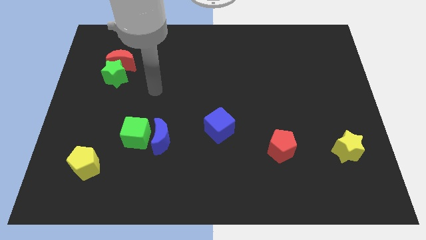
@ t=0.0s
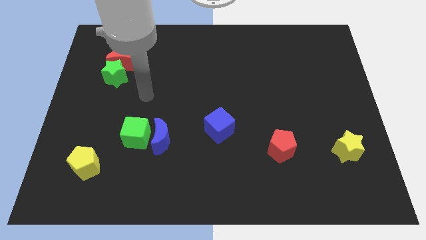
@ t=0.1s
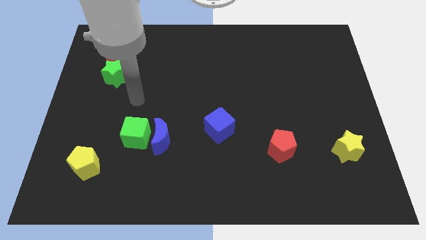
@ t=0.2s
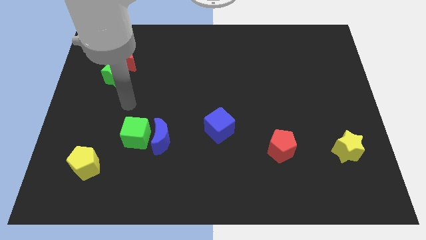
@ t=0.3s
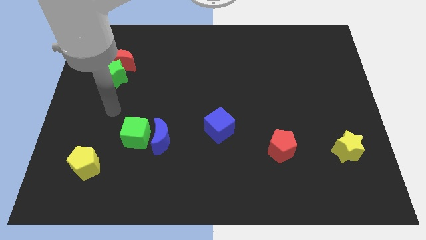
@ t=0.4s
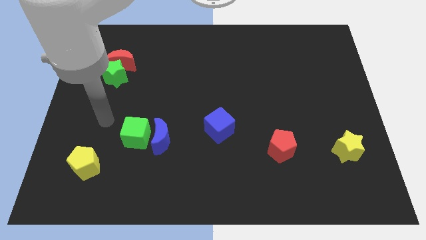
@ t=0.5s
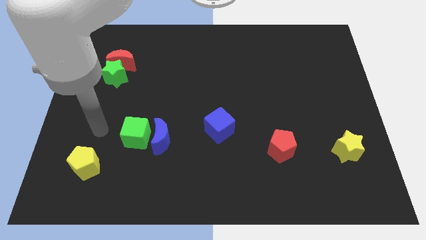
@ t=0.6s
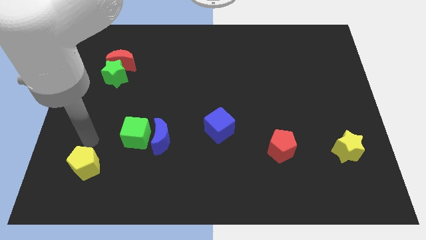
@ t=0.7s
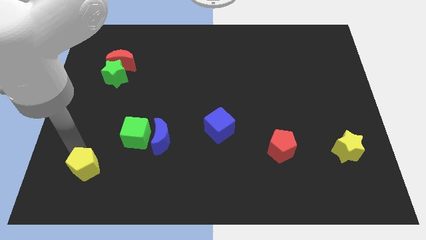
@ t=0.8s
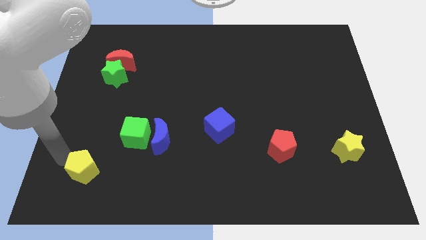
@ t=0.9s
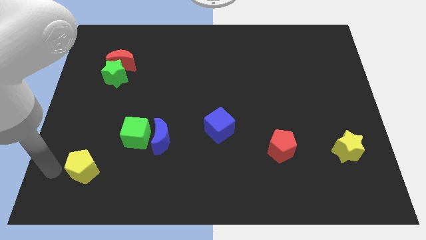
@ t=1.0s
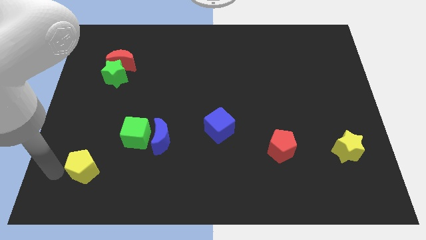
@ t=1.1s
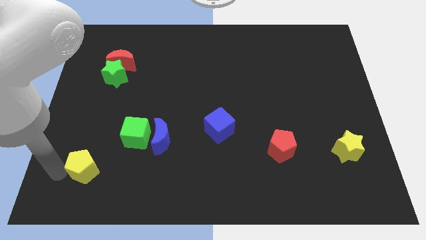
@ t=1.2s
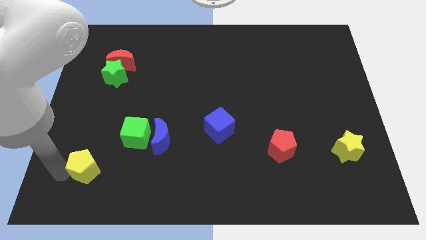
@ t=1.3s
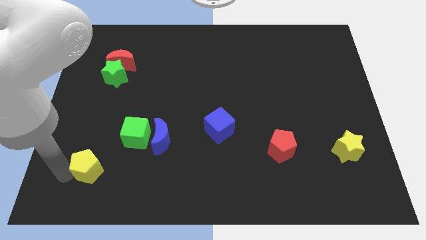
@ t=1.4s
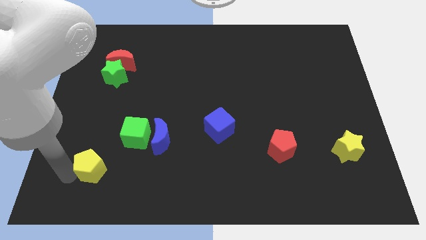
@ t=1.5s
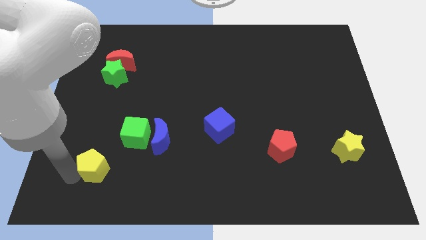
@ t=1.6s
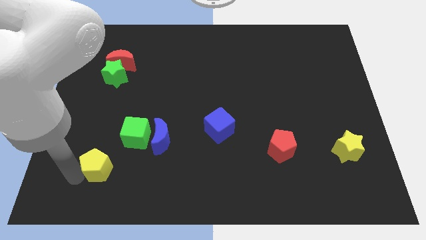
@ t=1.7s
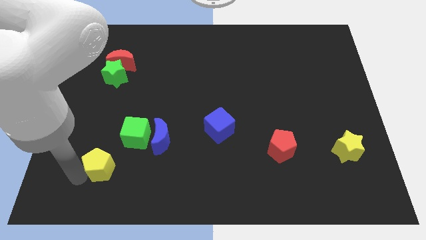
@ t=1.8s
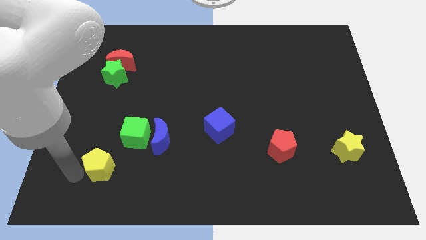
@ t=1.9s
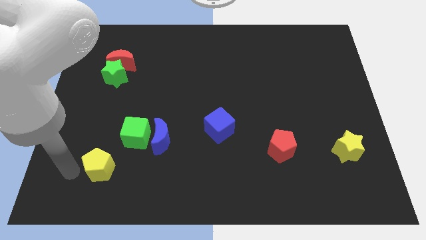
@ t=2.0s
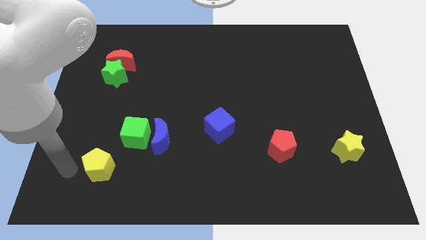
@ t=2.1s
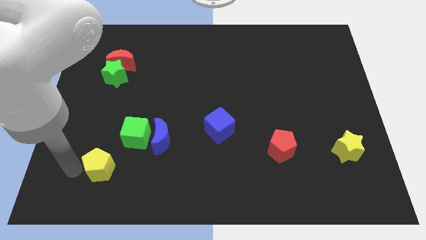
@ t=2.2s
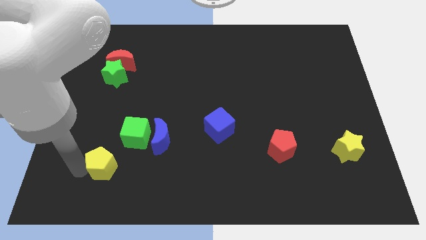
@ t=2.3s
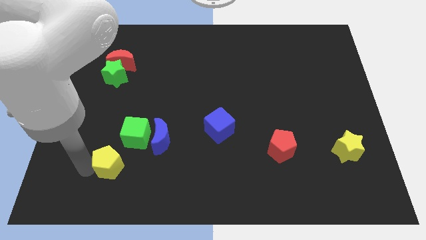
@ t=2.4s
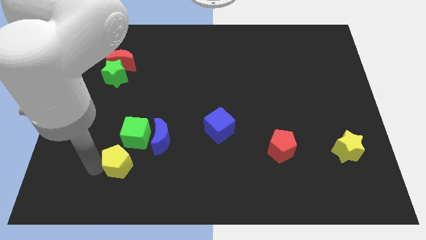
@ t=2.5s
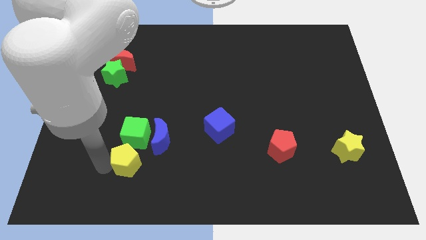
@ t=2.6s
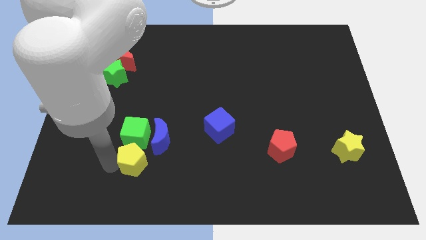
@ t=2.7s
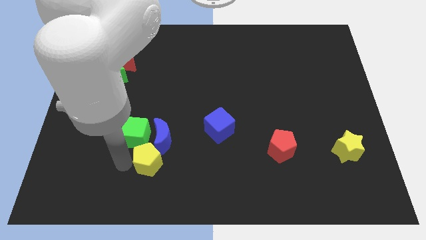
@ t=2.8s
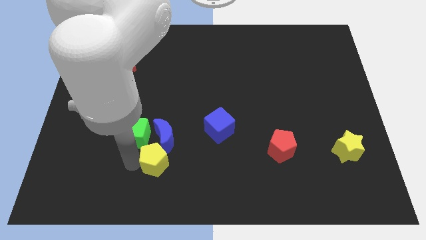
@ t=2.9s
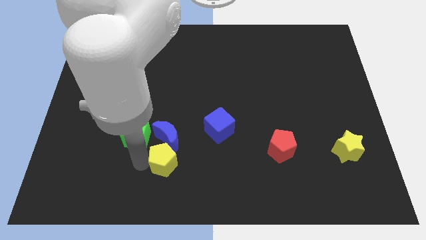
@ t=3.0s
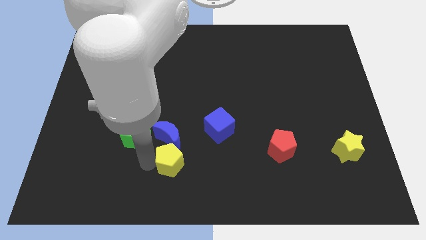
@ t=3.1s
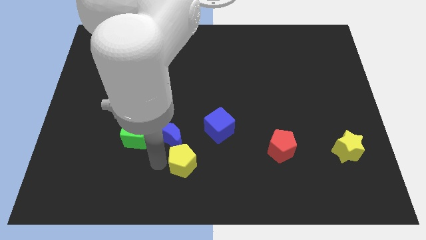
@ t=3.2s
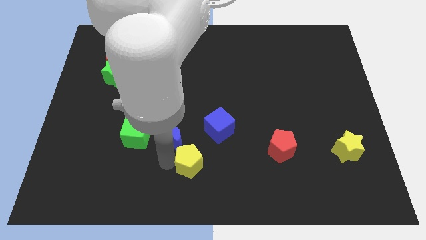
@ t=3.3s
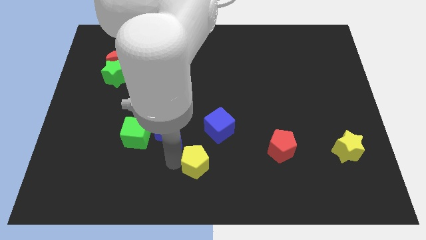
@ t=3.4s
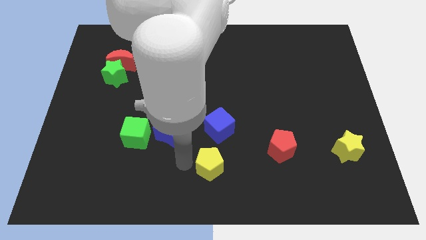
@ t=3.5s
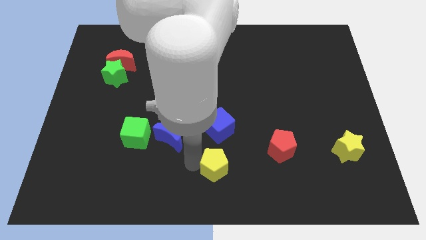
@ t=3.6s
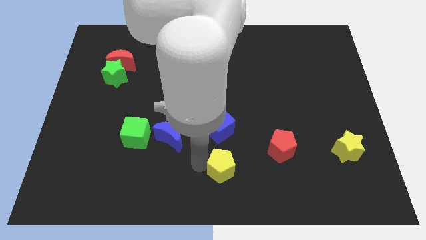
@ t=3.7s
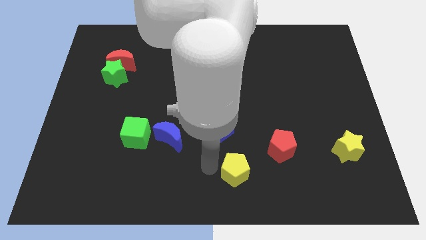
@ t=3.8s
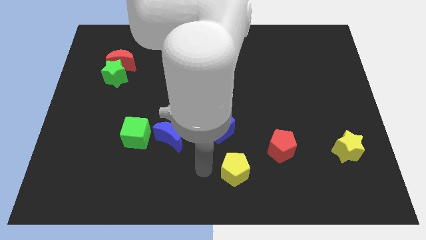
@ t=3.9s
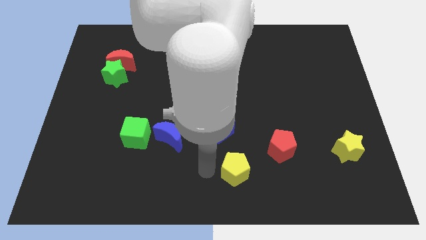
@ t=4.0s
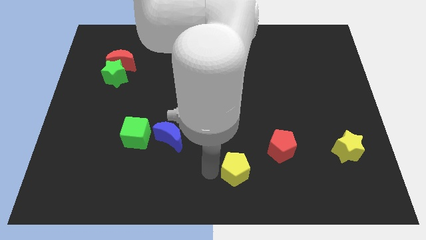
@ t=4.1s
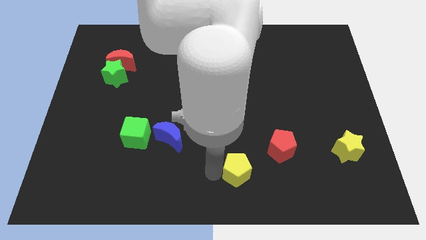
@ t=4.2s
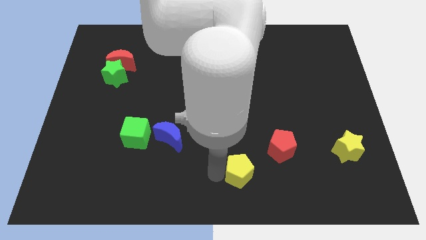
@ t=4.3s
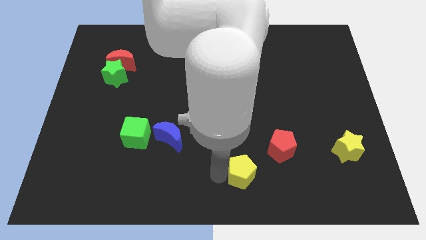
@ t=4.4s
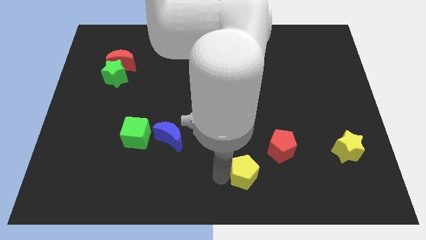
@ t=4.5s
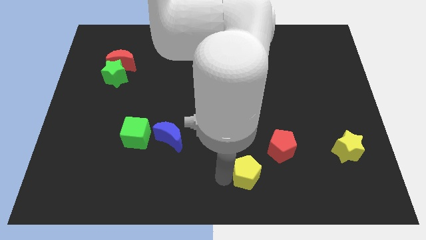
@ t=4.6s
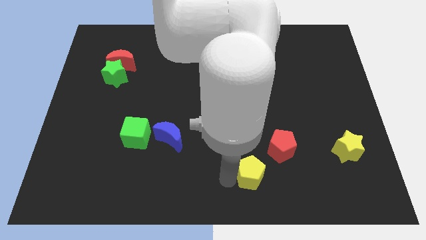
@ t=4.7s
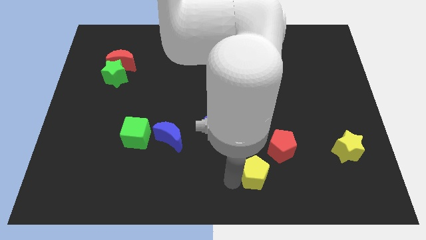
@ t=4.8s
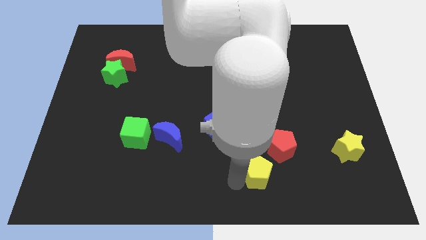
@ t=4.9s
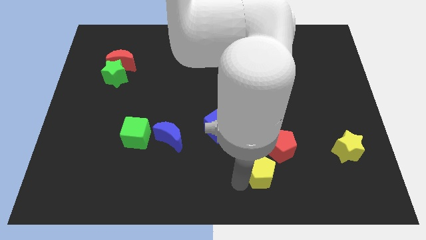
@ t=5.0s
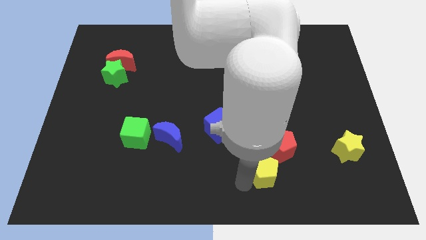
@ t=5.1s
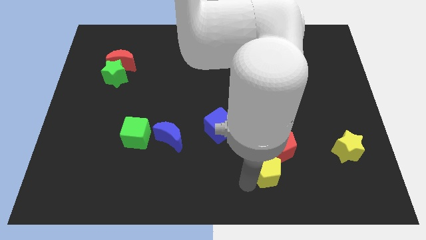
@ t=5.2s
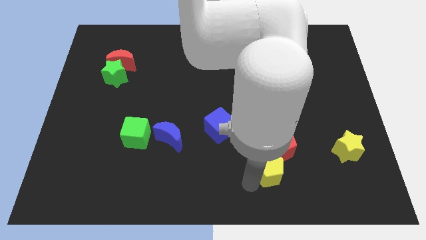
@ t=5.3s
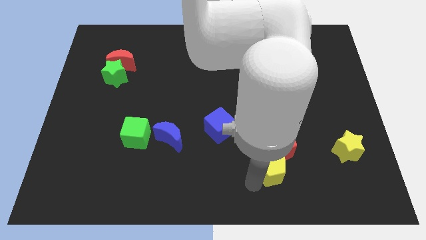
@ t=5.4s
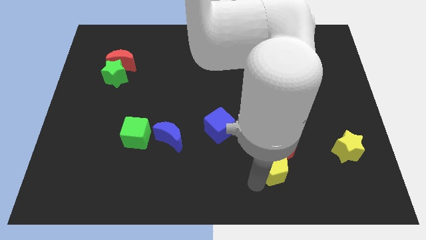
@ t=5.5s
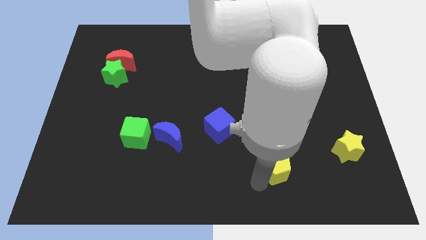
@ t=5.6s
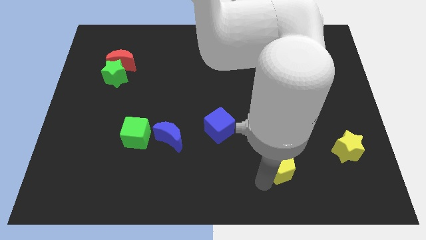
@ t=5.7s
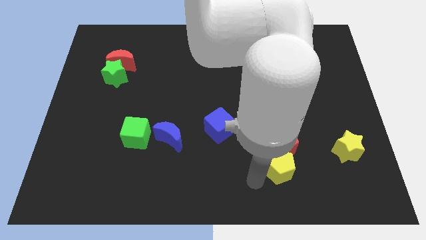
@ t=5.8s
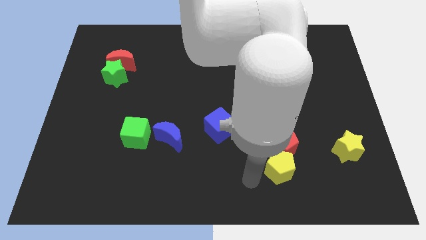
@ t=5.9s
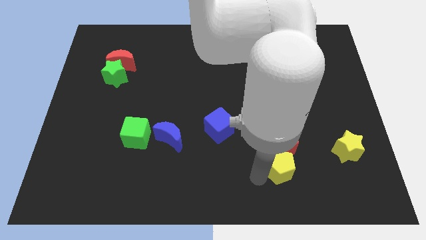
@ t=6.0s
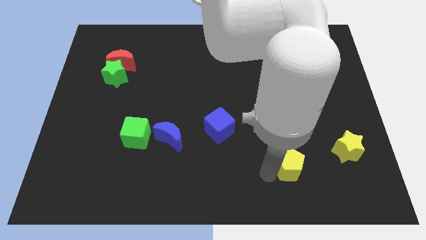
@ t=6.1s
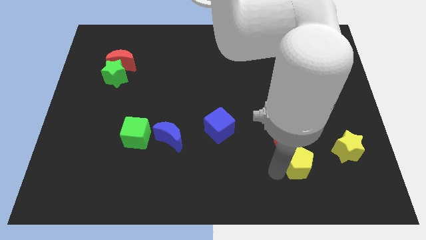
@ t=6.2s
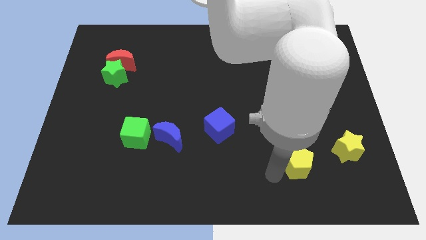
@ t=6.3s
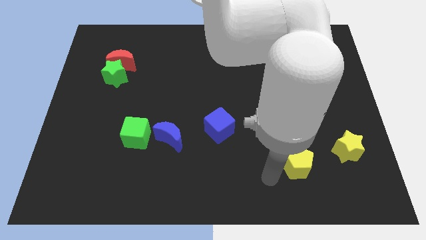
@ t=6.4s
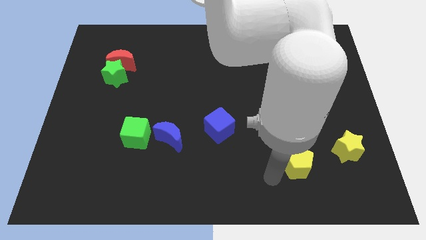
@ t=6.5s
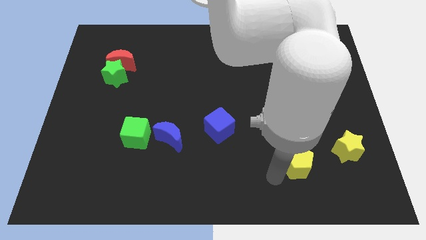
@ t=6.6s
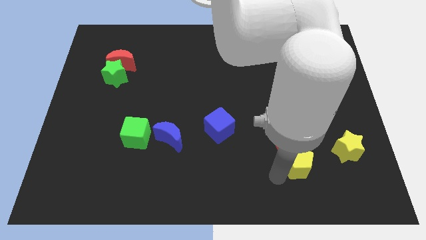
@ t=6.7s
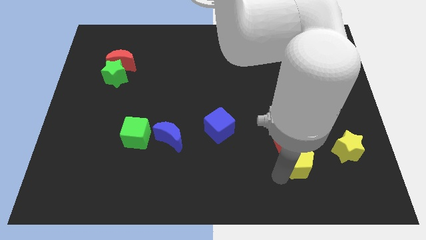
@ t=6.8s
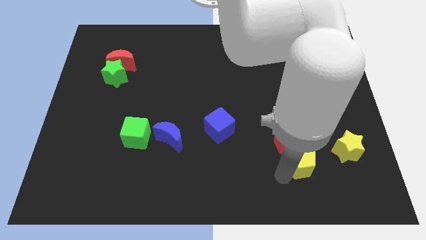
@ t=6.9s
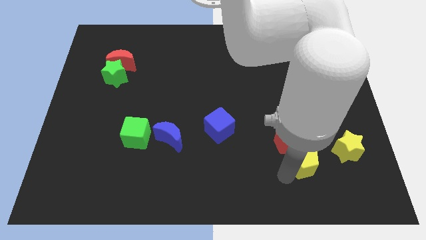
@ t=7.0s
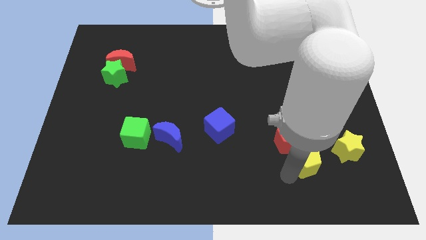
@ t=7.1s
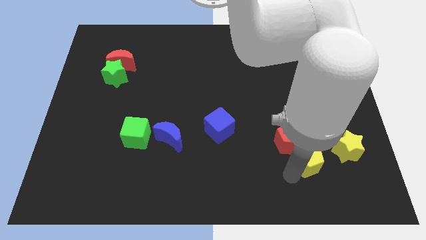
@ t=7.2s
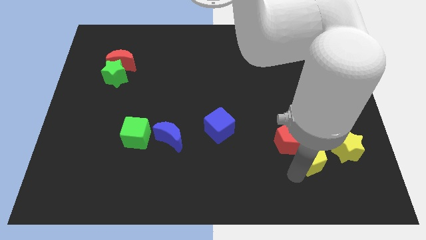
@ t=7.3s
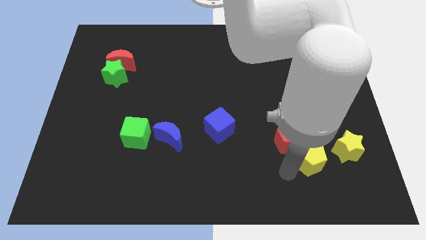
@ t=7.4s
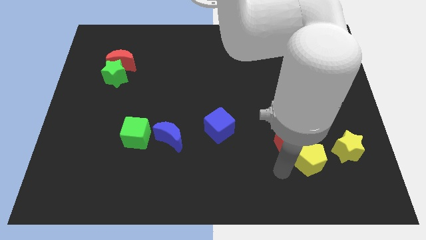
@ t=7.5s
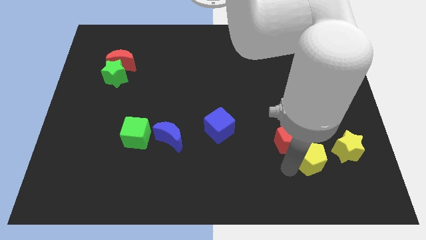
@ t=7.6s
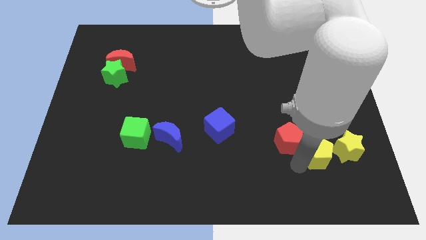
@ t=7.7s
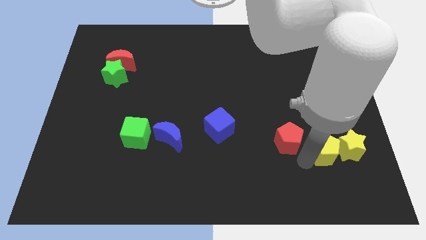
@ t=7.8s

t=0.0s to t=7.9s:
slide the yellow pentagon next to the yellow star
